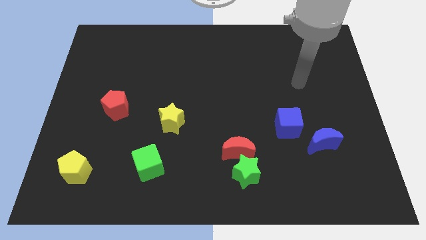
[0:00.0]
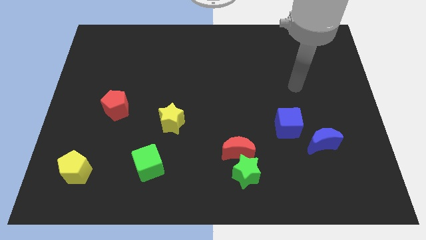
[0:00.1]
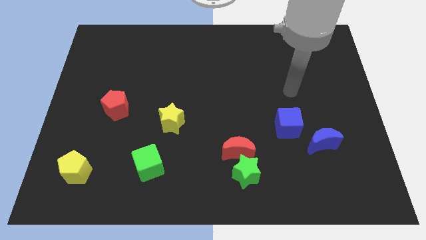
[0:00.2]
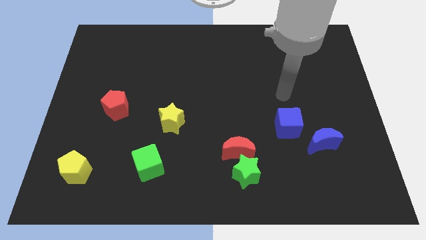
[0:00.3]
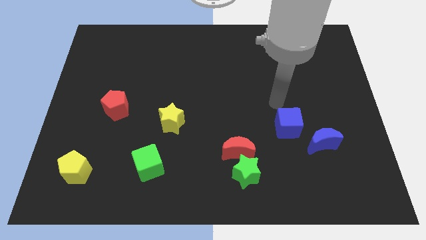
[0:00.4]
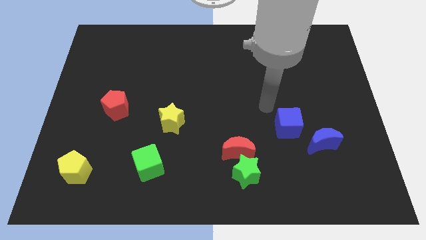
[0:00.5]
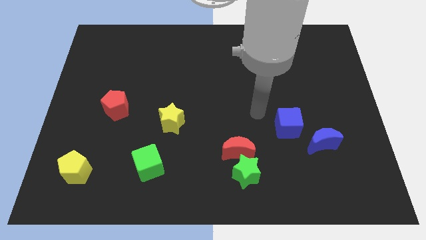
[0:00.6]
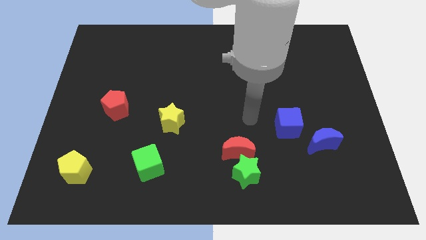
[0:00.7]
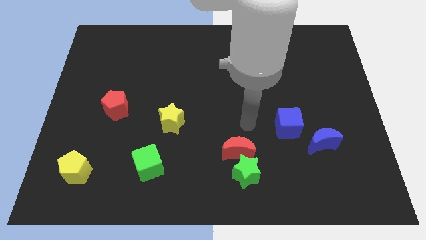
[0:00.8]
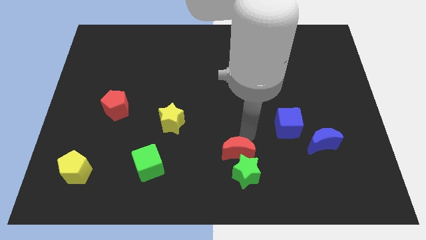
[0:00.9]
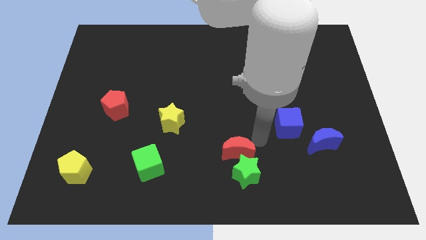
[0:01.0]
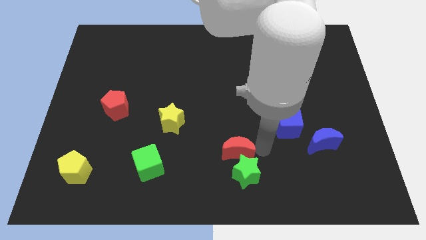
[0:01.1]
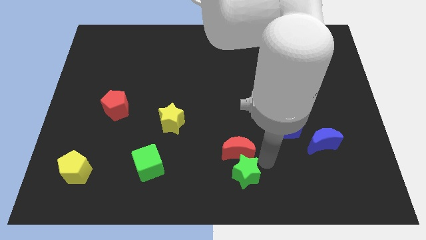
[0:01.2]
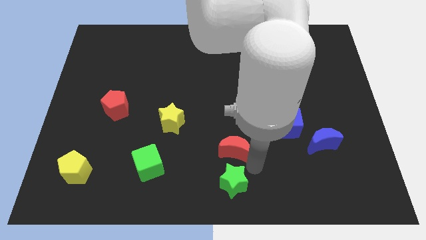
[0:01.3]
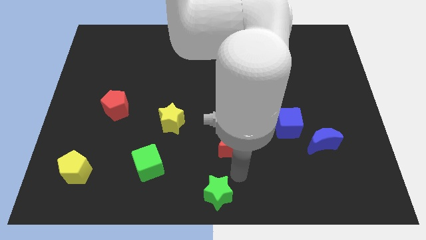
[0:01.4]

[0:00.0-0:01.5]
pull the red moon apart from the green star

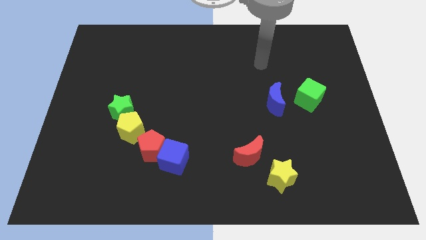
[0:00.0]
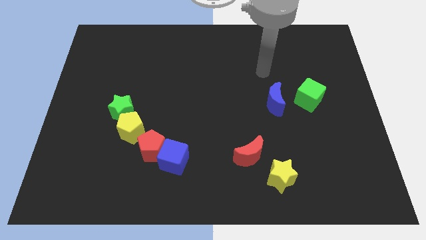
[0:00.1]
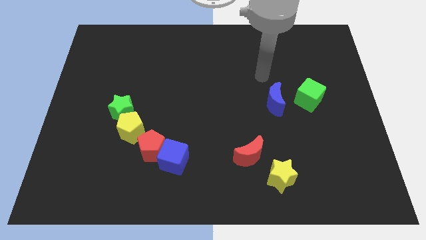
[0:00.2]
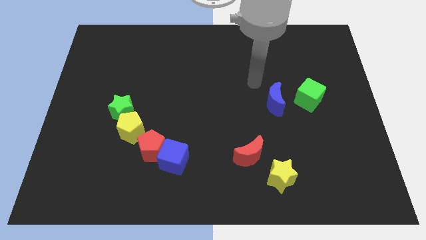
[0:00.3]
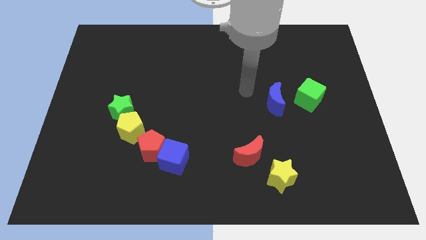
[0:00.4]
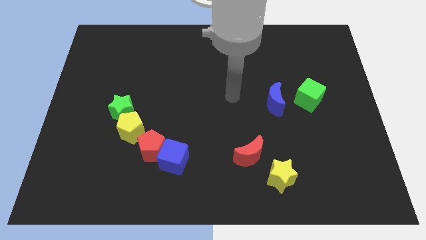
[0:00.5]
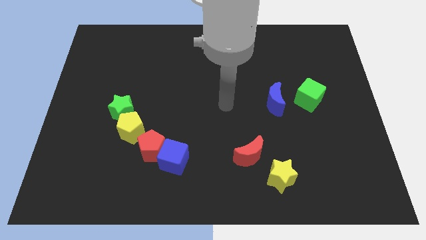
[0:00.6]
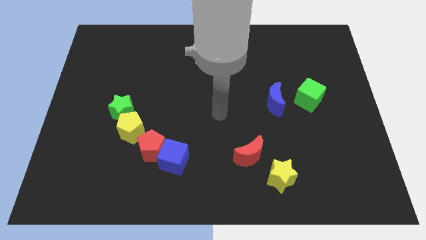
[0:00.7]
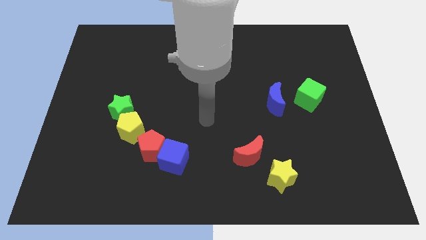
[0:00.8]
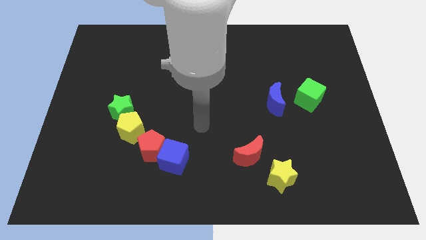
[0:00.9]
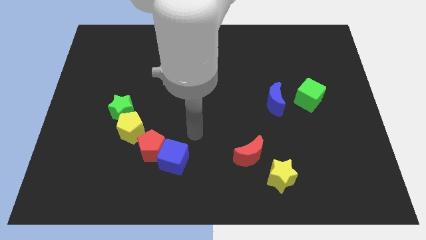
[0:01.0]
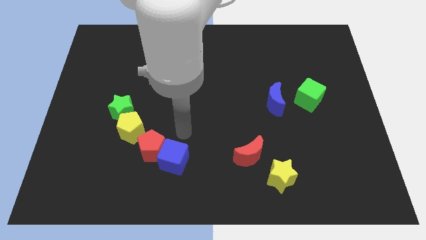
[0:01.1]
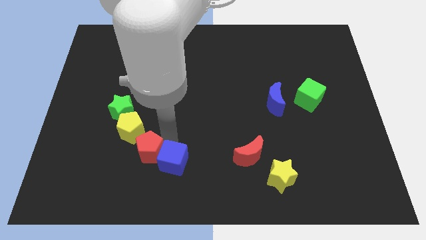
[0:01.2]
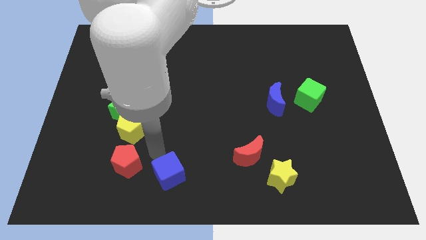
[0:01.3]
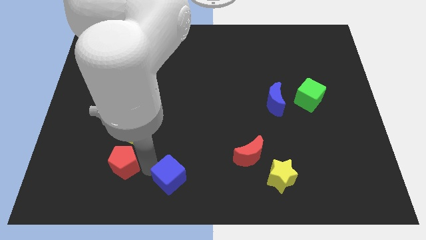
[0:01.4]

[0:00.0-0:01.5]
separate the blue cube from the red pentagon

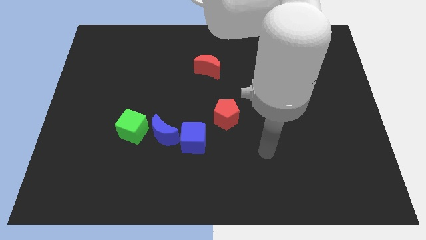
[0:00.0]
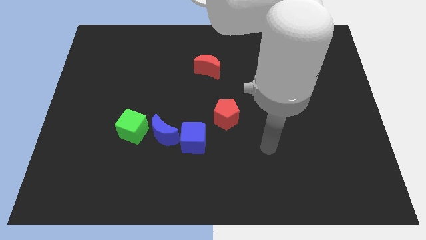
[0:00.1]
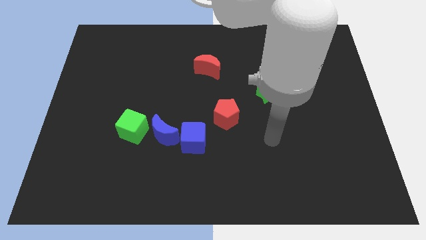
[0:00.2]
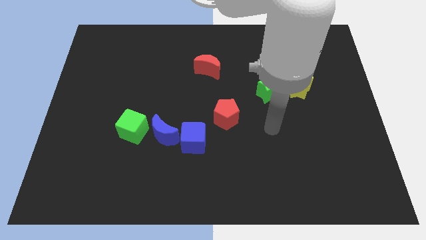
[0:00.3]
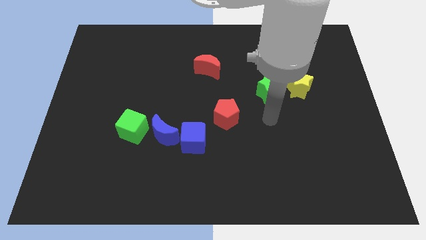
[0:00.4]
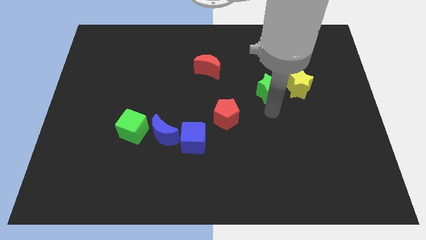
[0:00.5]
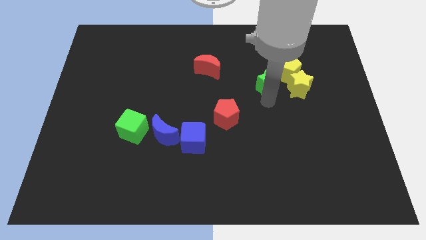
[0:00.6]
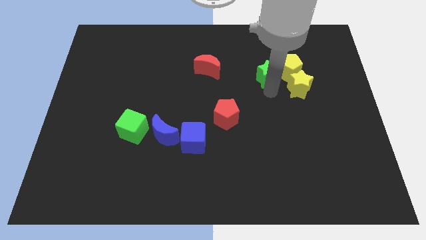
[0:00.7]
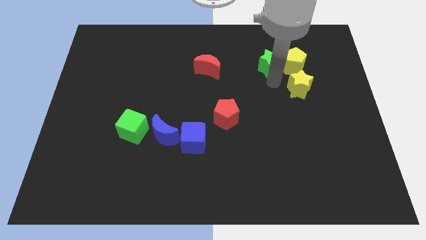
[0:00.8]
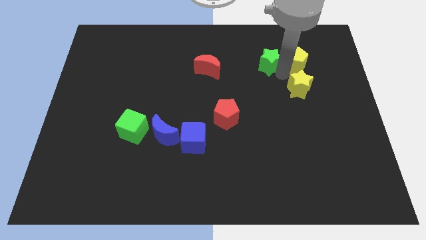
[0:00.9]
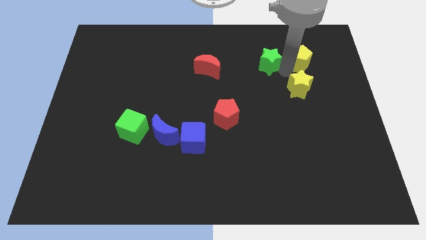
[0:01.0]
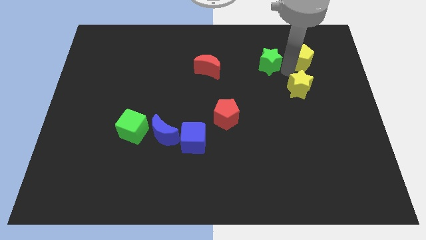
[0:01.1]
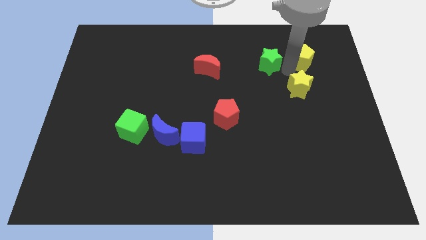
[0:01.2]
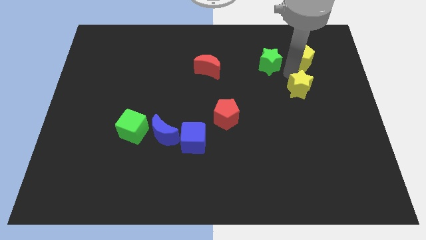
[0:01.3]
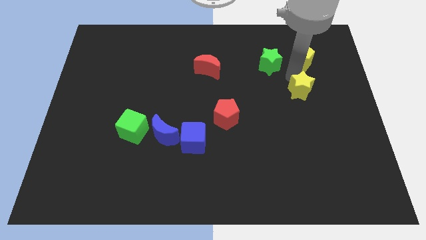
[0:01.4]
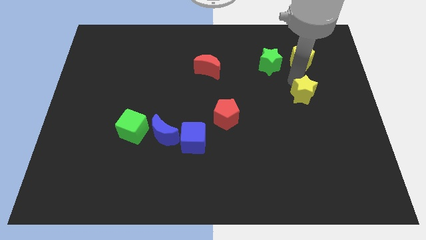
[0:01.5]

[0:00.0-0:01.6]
separate the yellow star from the yellow pentagon and green star

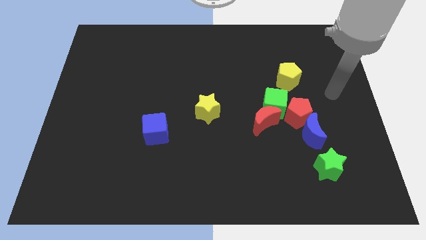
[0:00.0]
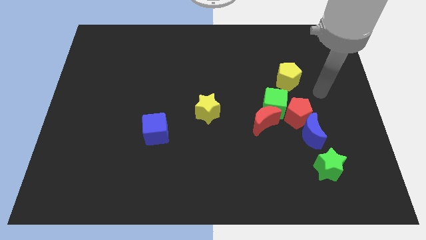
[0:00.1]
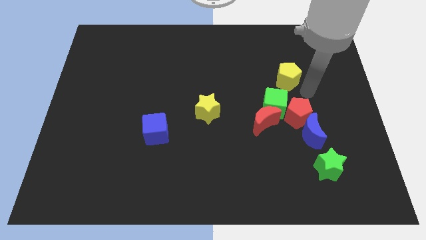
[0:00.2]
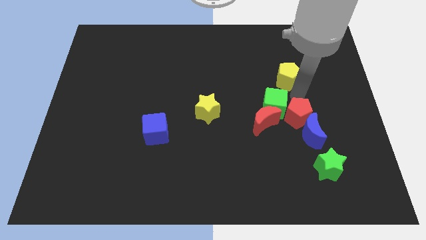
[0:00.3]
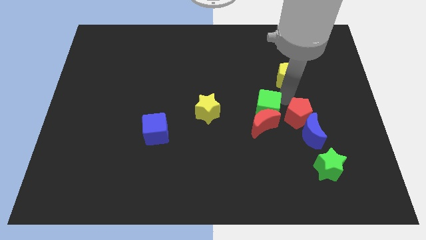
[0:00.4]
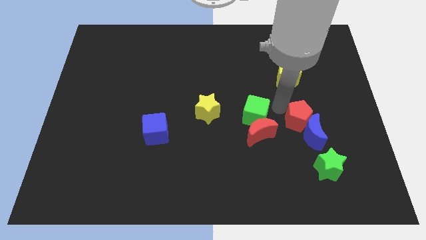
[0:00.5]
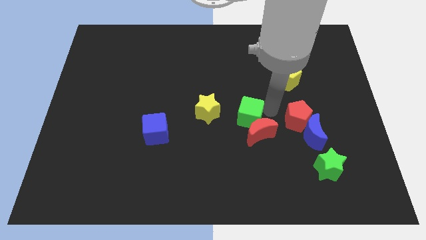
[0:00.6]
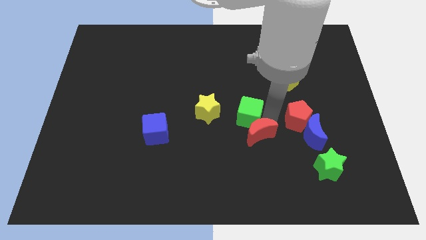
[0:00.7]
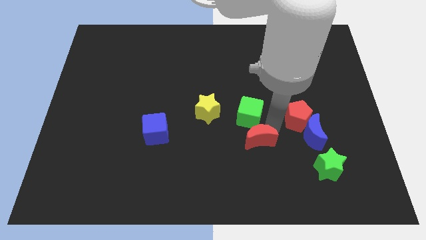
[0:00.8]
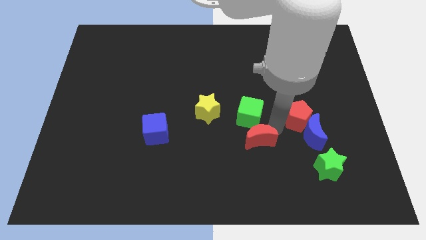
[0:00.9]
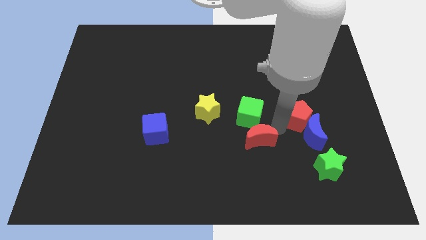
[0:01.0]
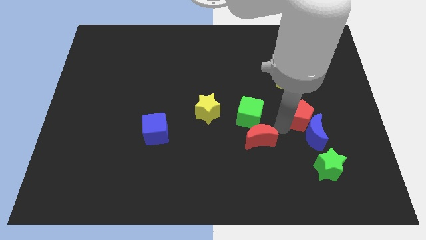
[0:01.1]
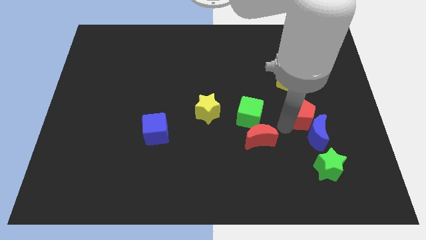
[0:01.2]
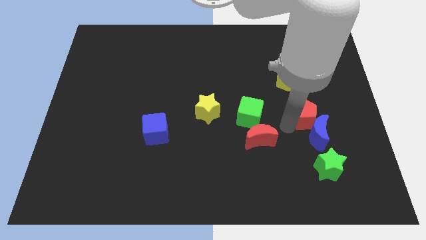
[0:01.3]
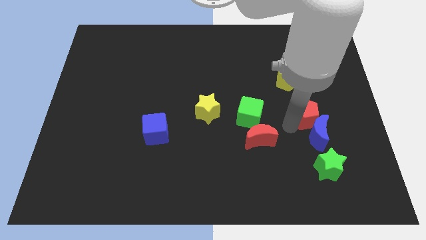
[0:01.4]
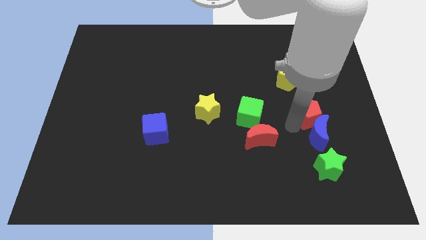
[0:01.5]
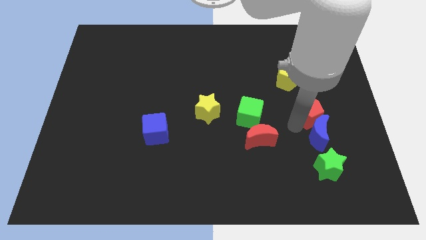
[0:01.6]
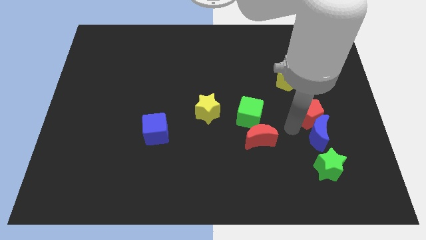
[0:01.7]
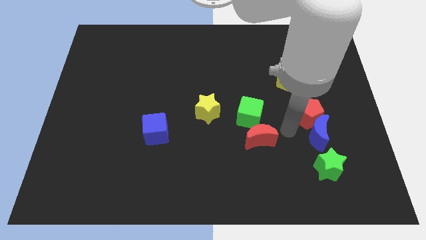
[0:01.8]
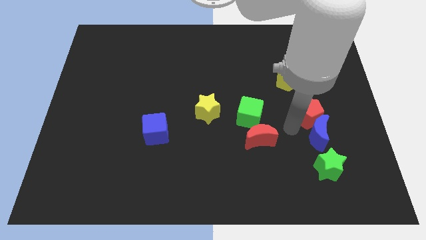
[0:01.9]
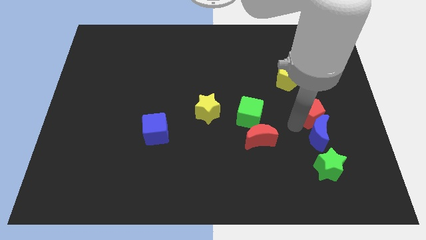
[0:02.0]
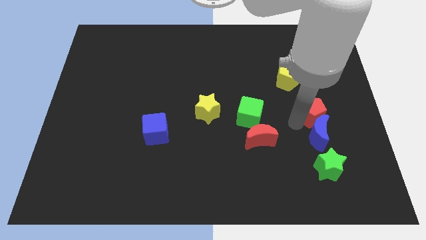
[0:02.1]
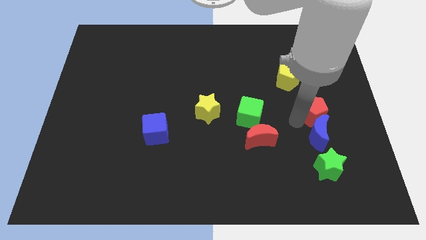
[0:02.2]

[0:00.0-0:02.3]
move the red pentagon away from the green cube, blue moon, and red moon

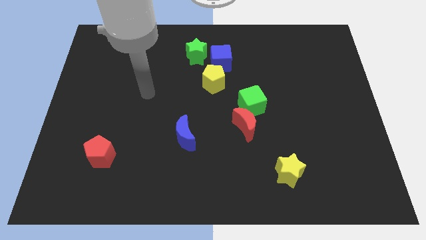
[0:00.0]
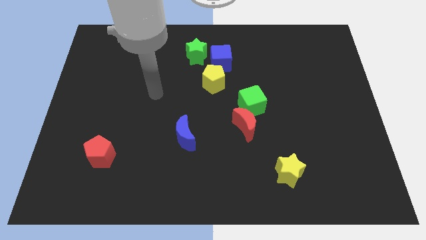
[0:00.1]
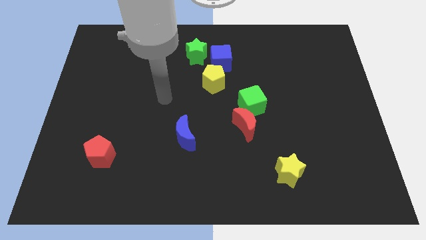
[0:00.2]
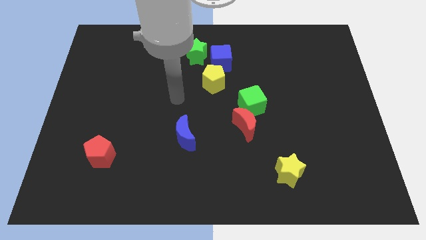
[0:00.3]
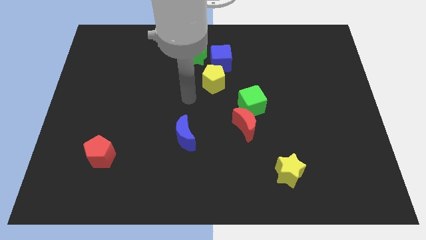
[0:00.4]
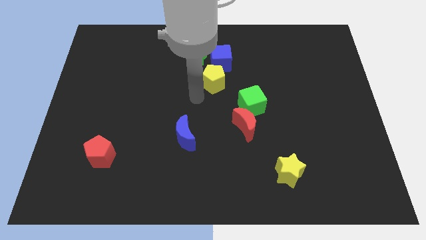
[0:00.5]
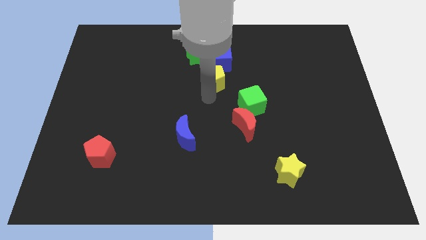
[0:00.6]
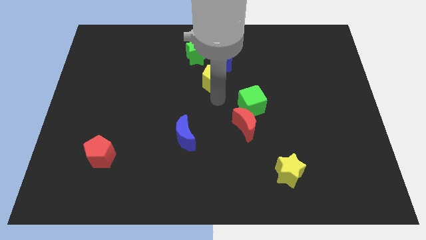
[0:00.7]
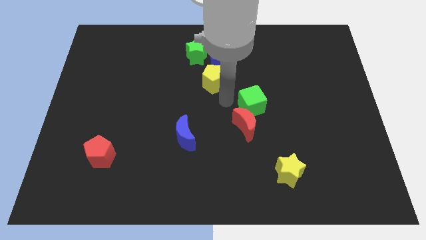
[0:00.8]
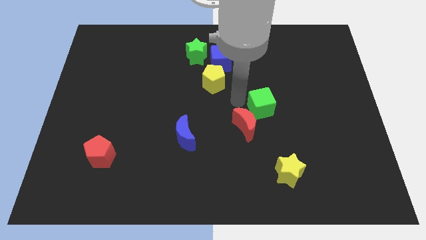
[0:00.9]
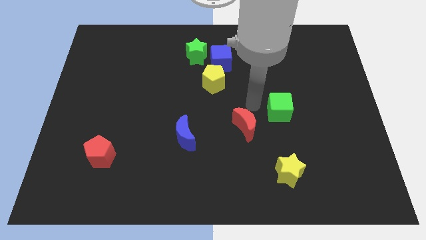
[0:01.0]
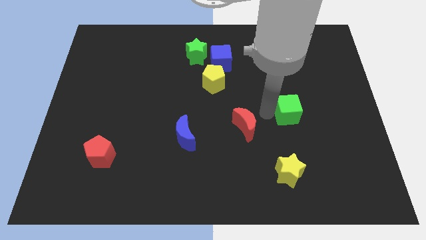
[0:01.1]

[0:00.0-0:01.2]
pull the red moon apart from the green cube

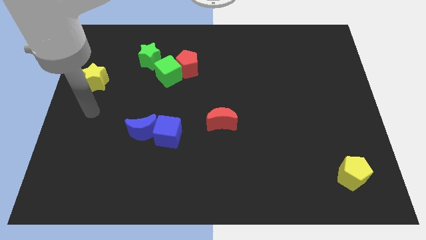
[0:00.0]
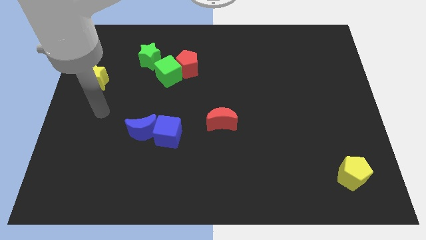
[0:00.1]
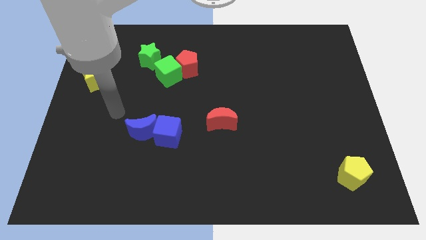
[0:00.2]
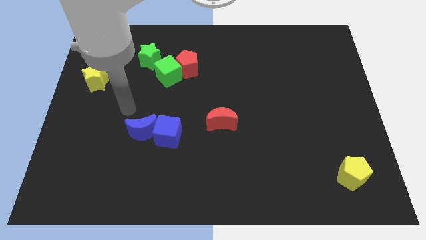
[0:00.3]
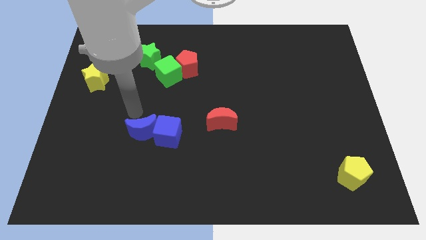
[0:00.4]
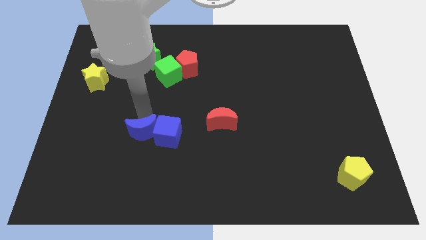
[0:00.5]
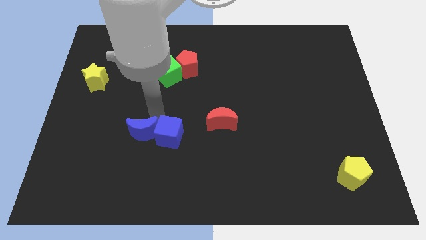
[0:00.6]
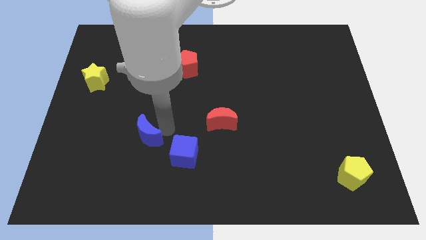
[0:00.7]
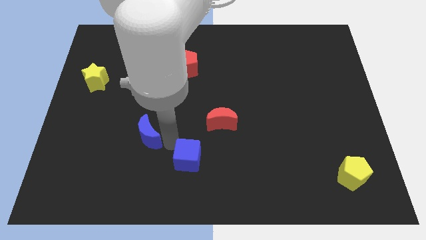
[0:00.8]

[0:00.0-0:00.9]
move the blue moon away from the blue cube

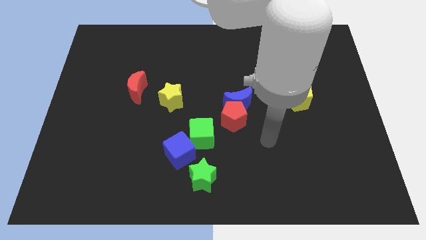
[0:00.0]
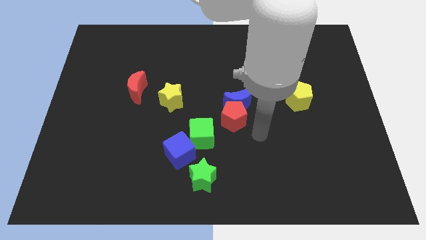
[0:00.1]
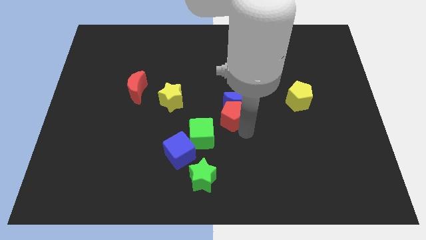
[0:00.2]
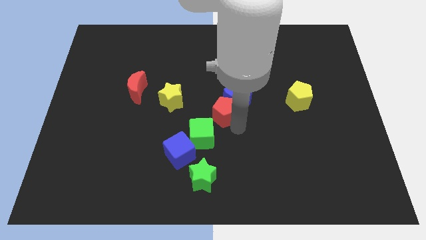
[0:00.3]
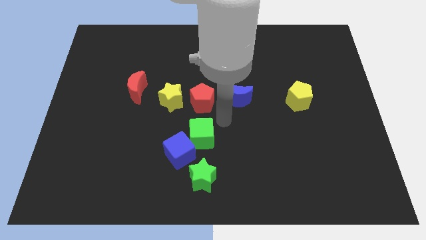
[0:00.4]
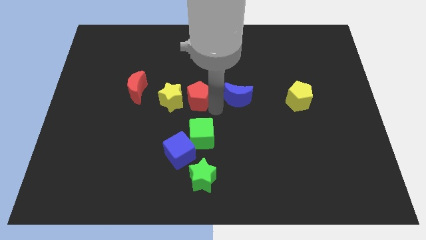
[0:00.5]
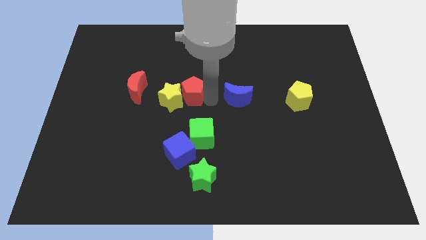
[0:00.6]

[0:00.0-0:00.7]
separate the blue moon from the red pentagon
